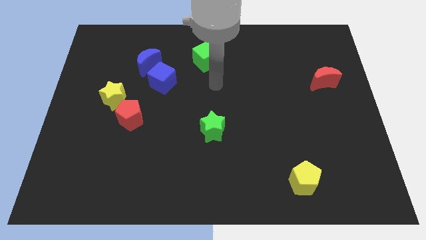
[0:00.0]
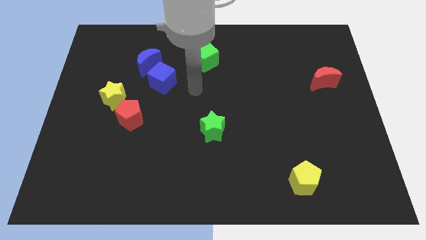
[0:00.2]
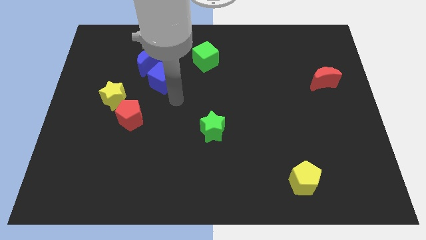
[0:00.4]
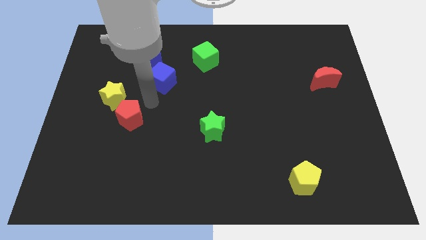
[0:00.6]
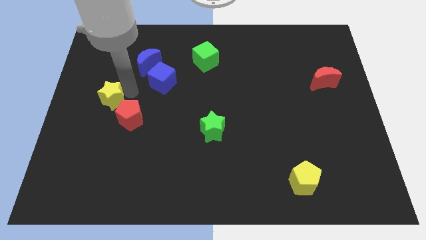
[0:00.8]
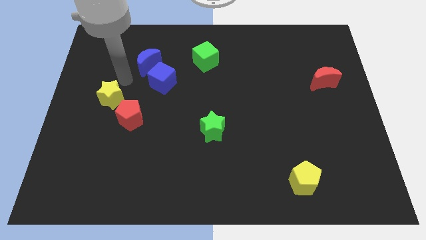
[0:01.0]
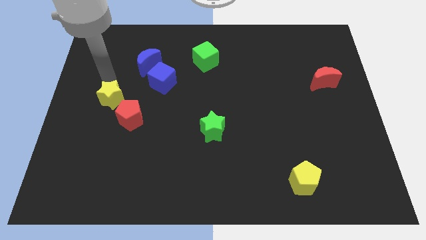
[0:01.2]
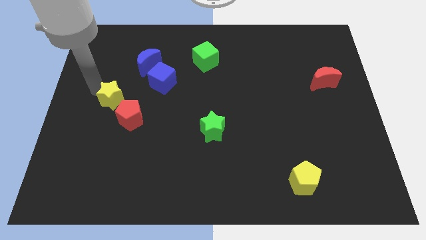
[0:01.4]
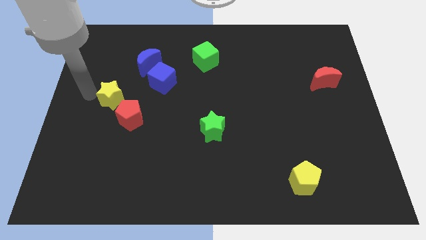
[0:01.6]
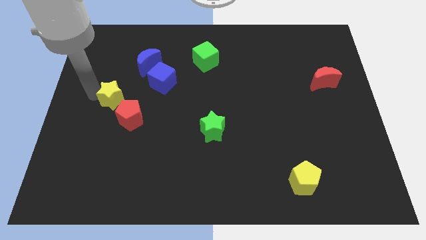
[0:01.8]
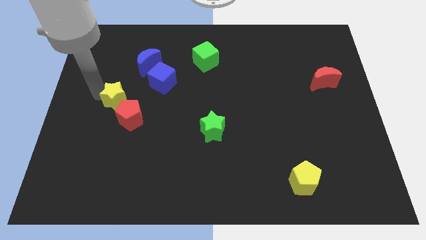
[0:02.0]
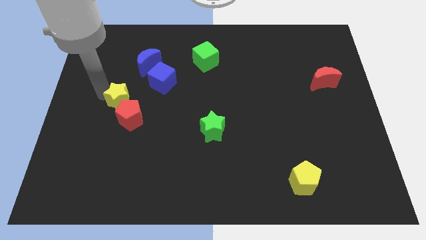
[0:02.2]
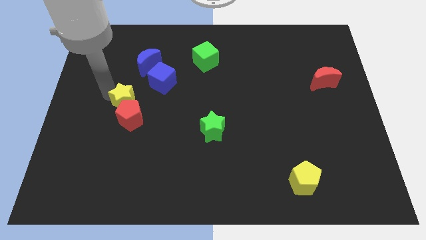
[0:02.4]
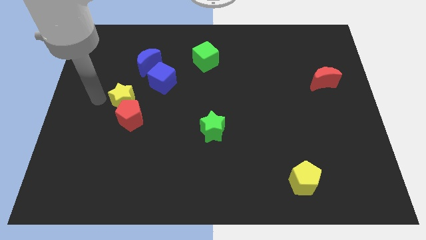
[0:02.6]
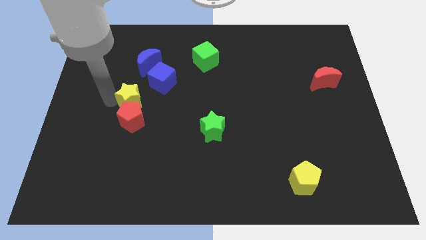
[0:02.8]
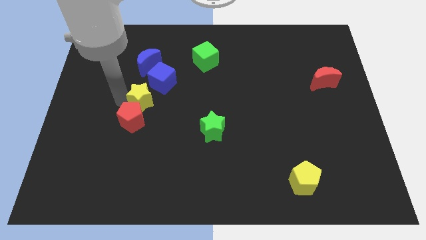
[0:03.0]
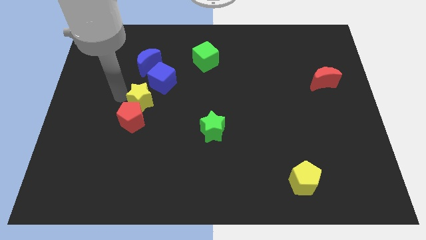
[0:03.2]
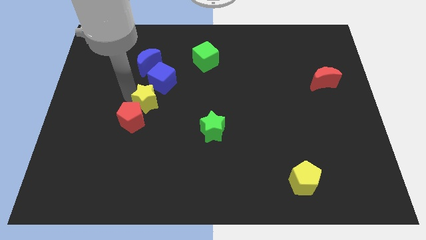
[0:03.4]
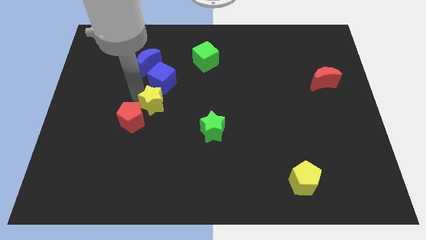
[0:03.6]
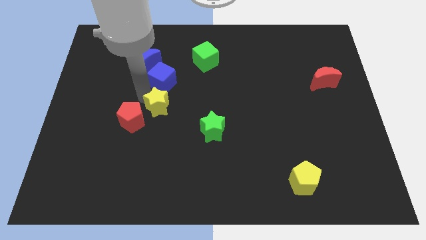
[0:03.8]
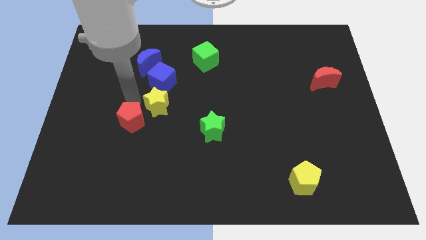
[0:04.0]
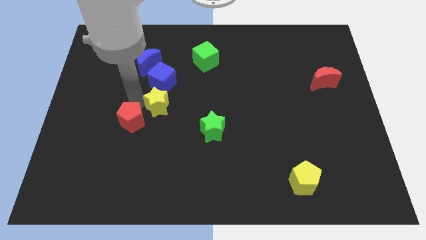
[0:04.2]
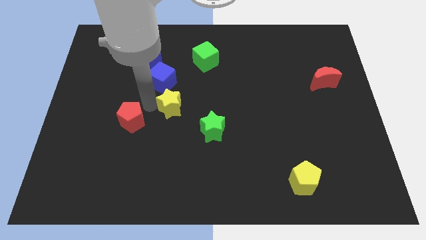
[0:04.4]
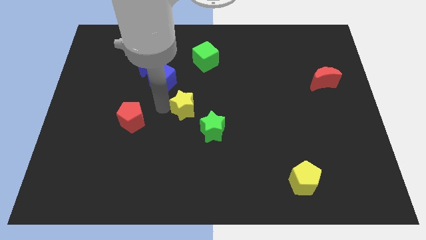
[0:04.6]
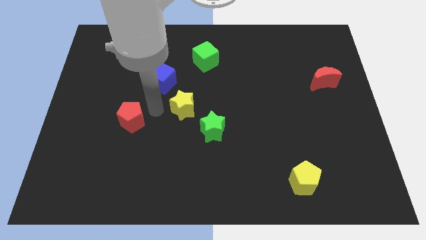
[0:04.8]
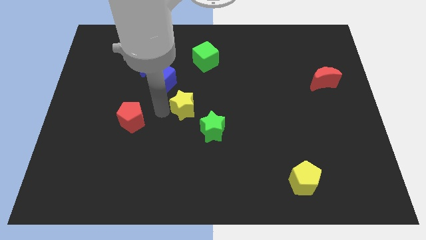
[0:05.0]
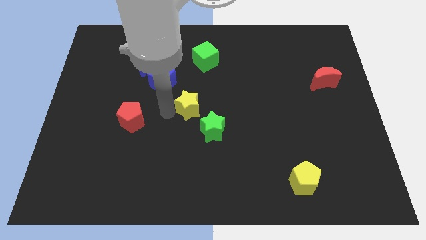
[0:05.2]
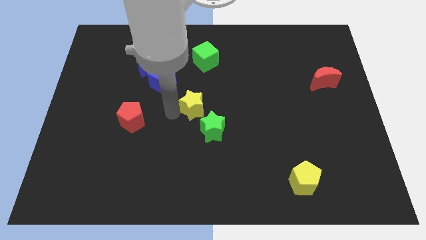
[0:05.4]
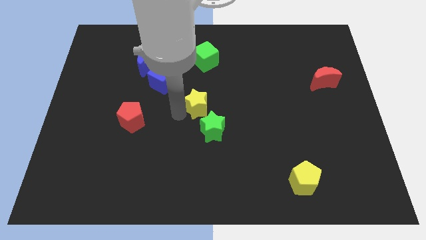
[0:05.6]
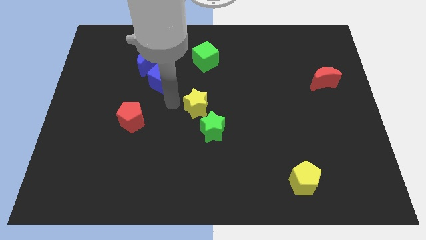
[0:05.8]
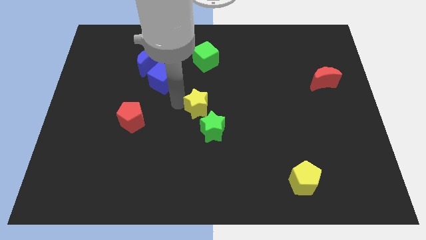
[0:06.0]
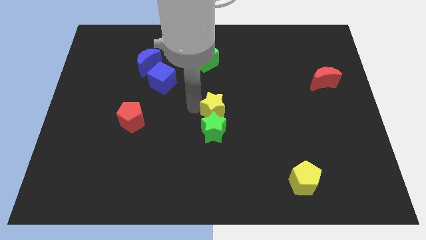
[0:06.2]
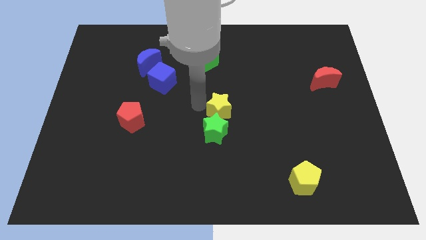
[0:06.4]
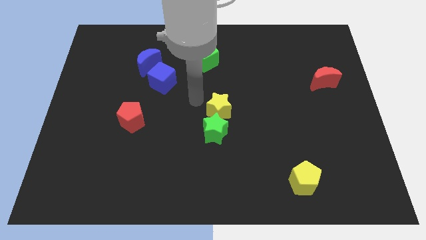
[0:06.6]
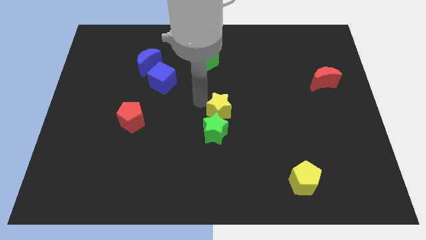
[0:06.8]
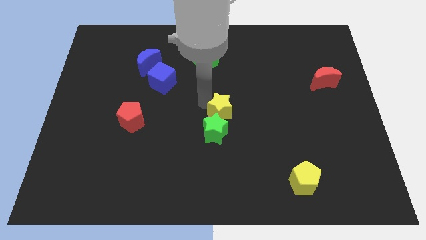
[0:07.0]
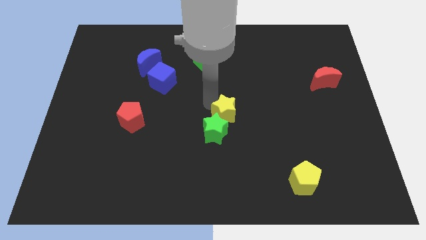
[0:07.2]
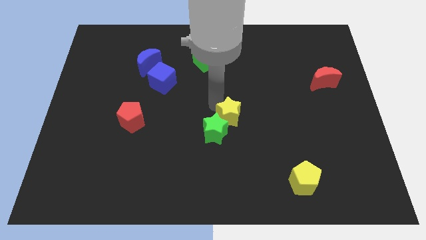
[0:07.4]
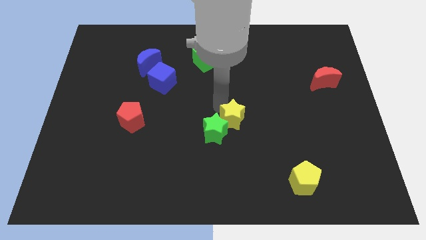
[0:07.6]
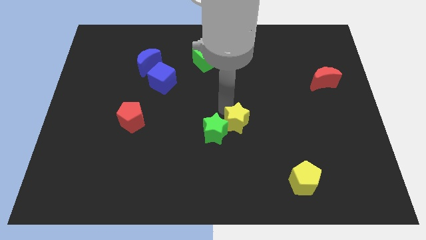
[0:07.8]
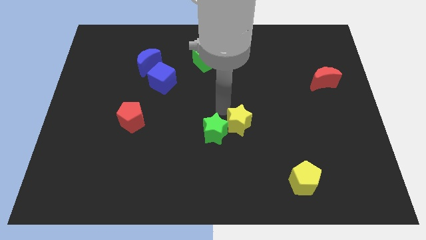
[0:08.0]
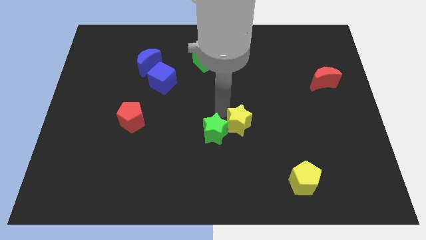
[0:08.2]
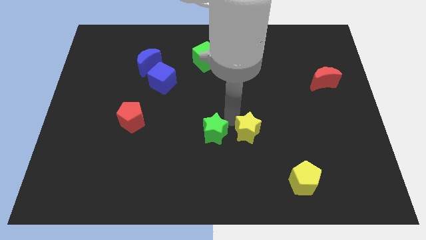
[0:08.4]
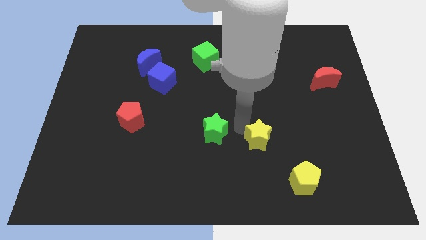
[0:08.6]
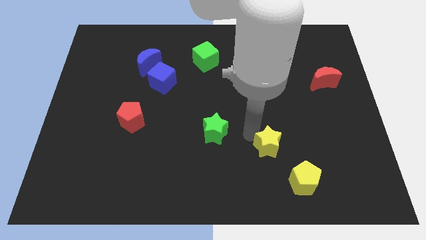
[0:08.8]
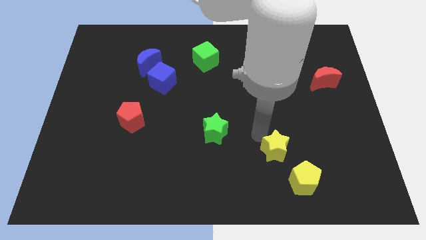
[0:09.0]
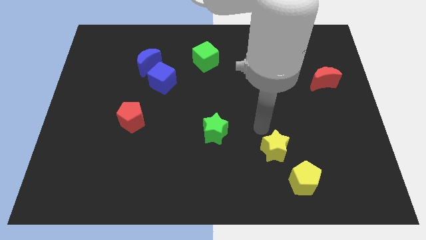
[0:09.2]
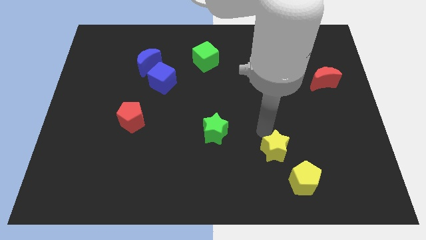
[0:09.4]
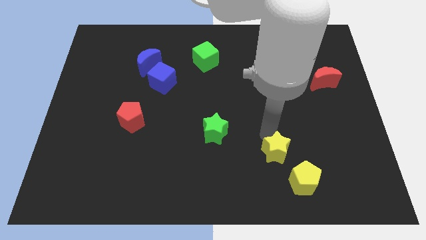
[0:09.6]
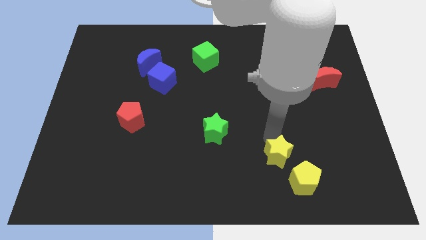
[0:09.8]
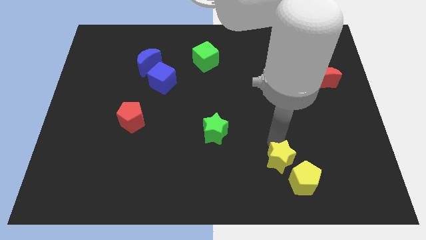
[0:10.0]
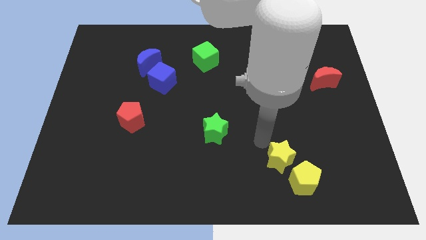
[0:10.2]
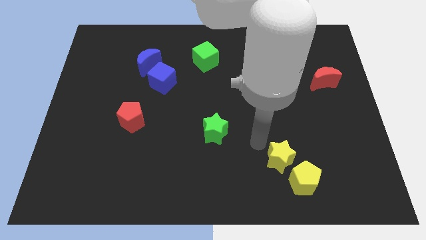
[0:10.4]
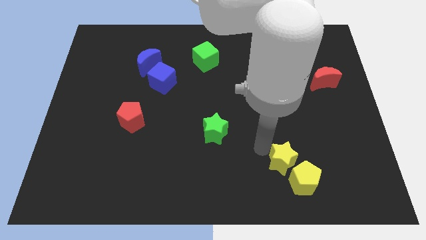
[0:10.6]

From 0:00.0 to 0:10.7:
move the yellow star to the yellow pentagon

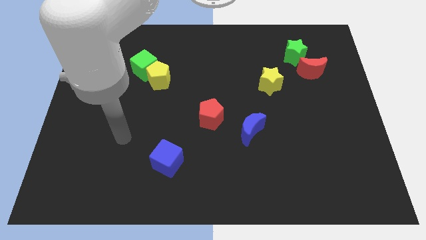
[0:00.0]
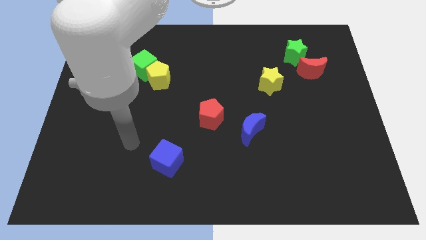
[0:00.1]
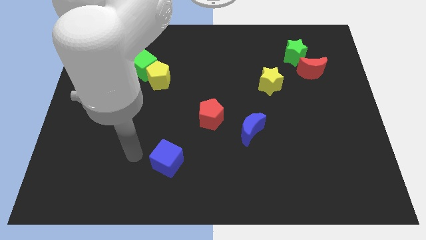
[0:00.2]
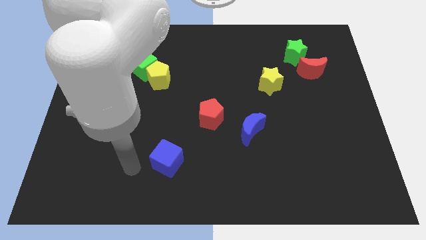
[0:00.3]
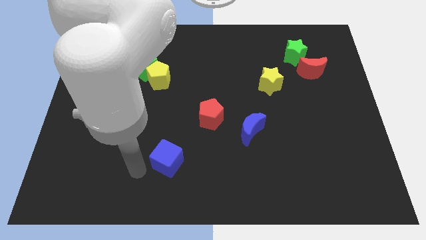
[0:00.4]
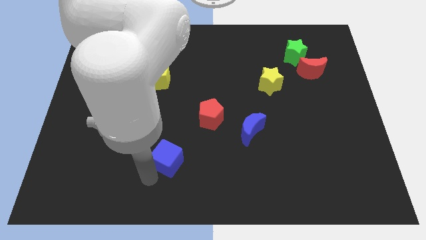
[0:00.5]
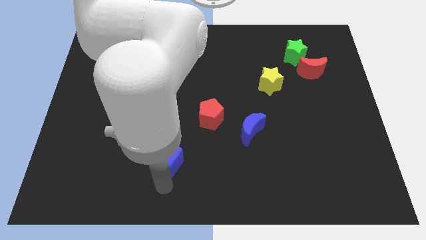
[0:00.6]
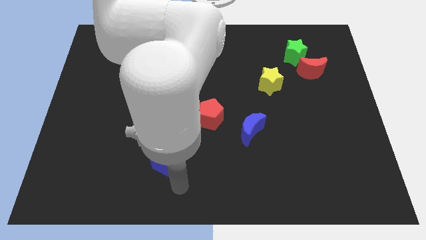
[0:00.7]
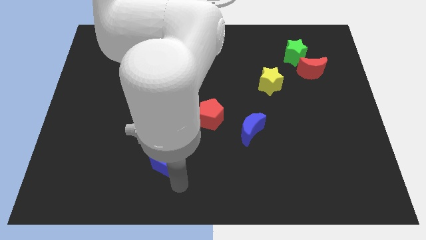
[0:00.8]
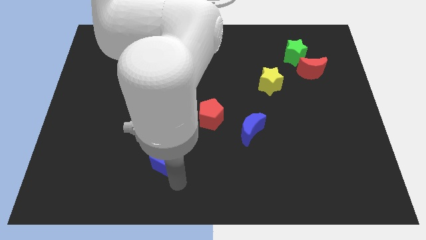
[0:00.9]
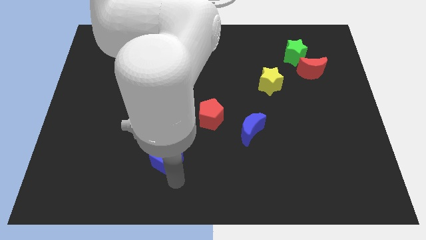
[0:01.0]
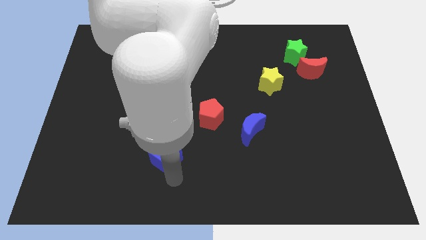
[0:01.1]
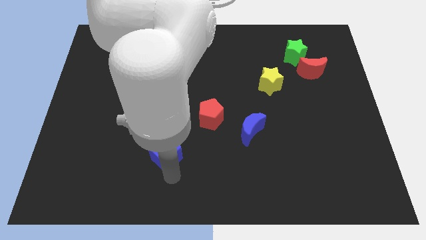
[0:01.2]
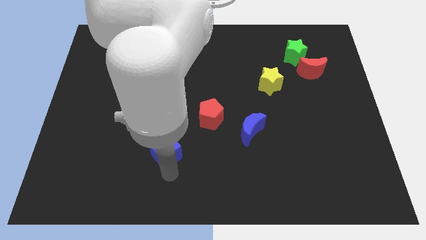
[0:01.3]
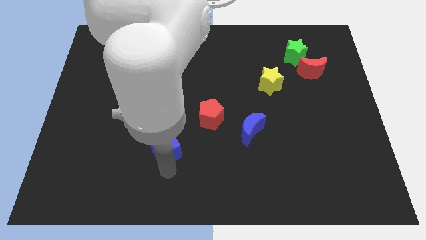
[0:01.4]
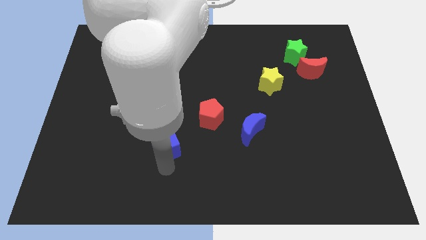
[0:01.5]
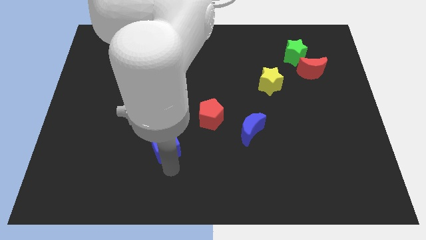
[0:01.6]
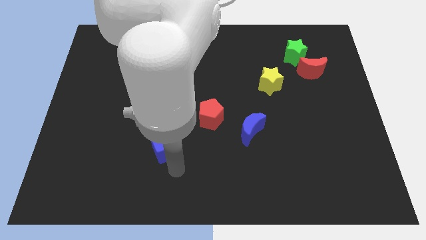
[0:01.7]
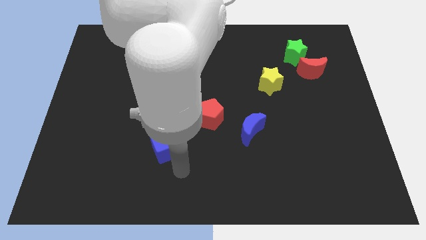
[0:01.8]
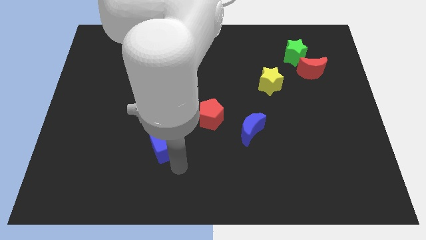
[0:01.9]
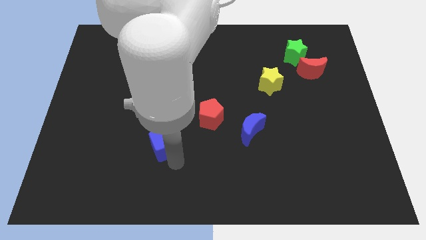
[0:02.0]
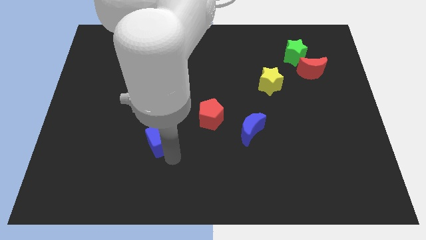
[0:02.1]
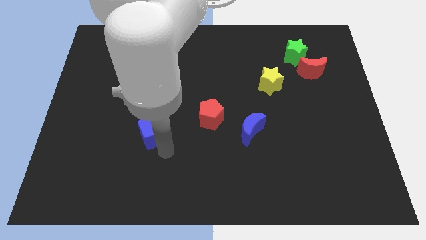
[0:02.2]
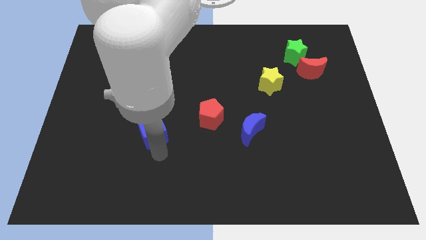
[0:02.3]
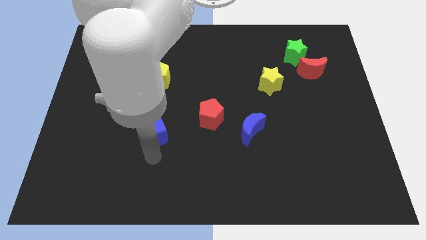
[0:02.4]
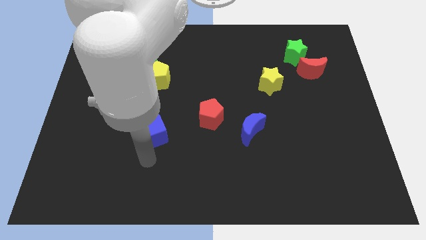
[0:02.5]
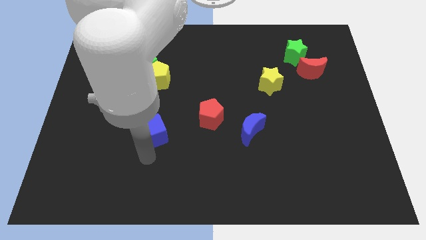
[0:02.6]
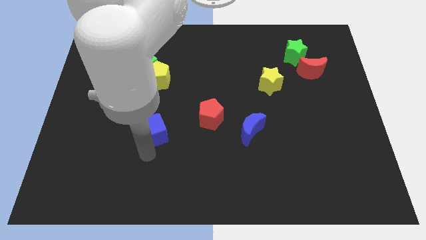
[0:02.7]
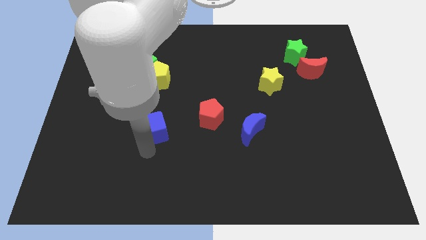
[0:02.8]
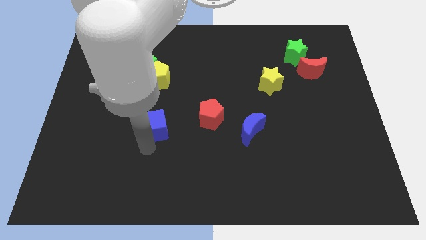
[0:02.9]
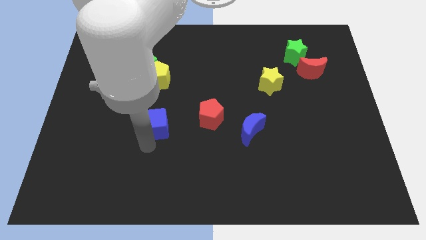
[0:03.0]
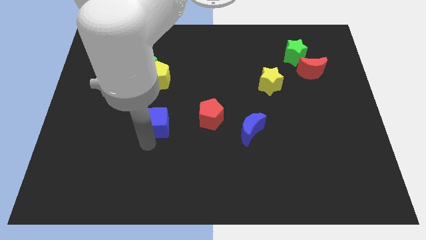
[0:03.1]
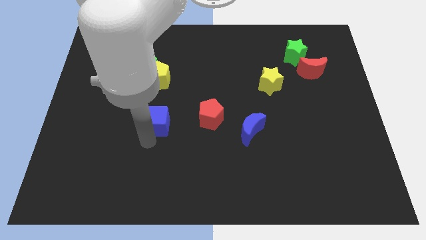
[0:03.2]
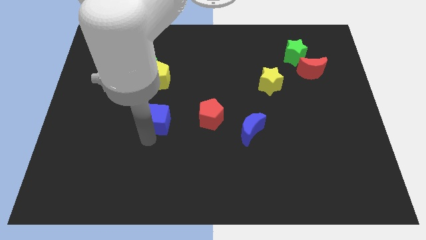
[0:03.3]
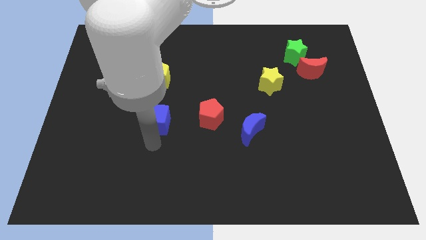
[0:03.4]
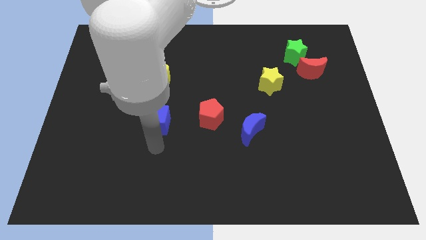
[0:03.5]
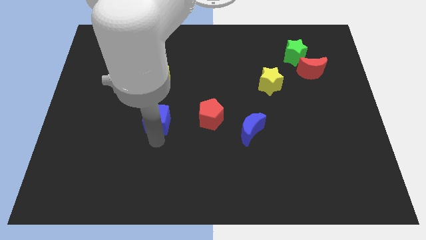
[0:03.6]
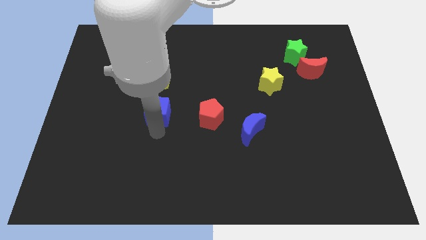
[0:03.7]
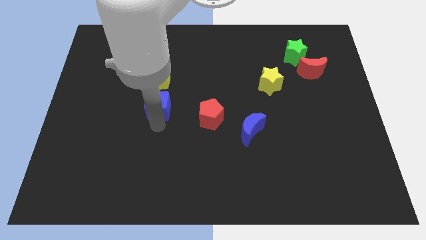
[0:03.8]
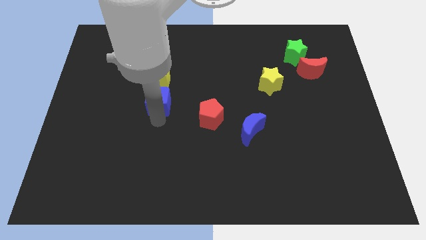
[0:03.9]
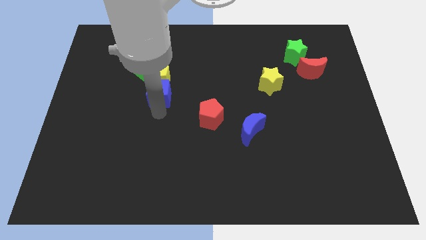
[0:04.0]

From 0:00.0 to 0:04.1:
put the blue cube to the yellow pentagon
